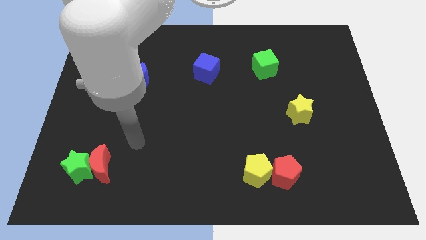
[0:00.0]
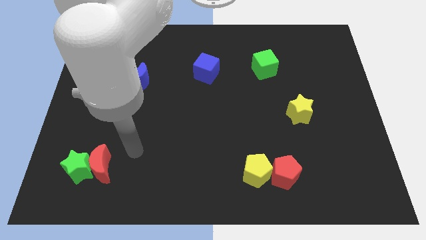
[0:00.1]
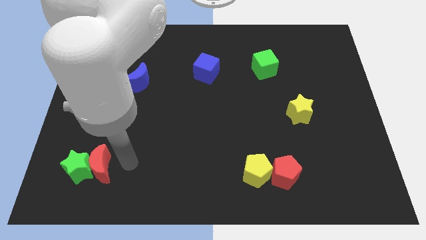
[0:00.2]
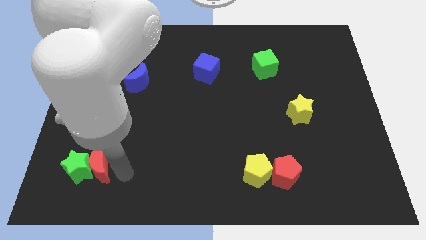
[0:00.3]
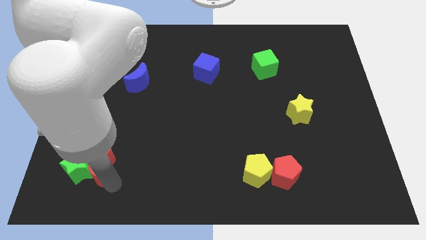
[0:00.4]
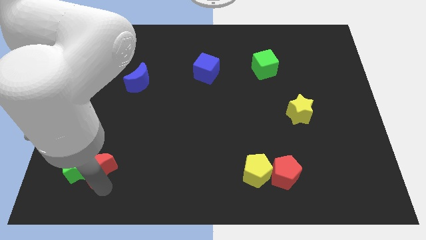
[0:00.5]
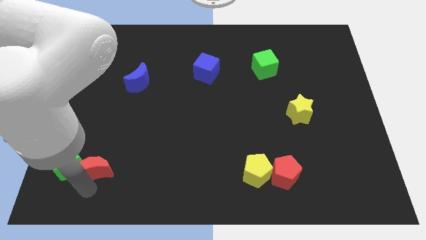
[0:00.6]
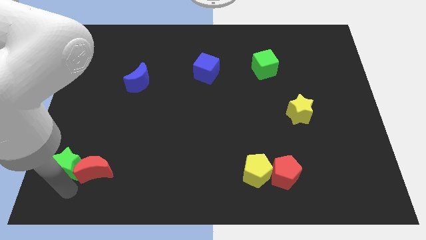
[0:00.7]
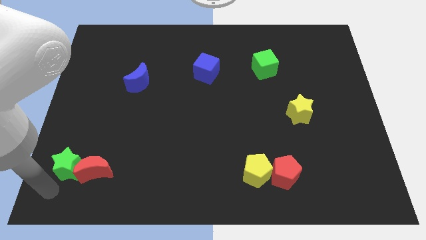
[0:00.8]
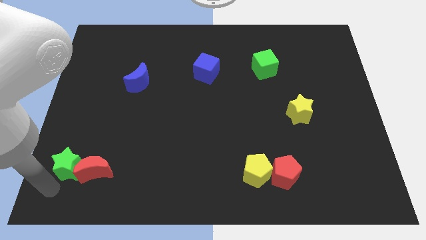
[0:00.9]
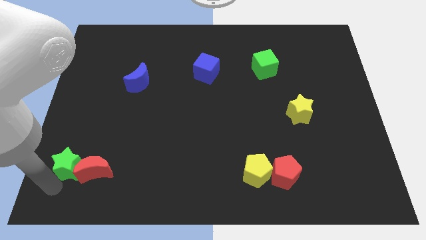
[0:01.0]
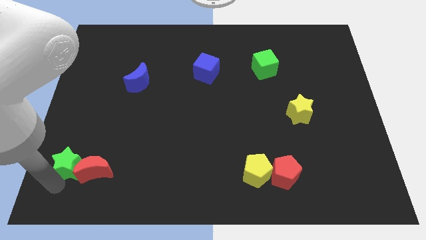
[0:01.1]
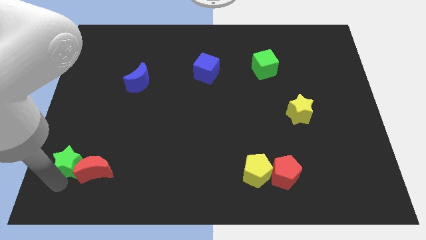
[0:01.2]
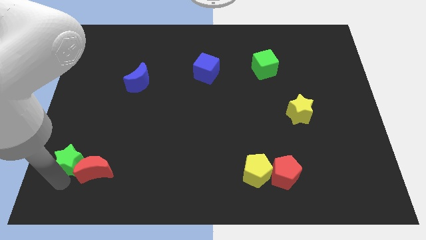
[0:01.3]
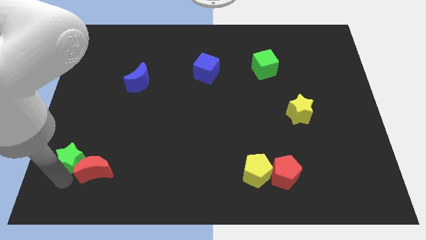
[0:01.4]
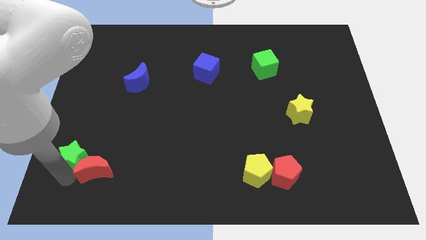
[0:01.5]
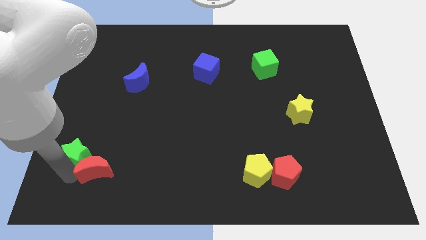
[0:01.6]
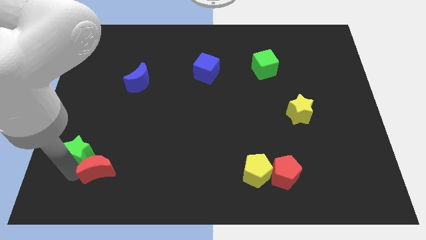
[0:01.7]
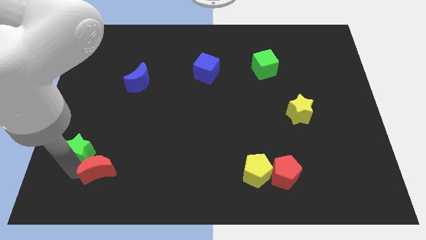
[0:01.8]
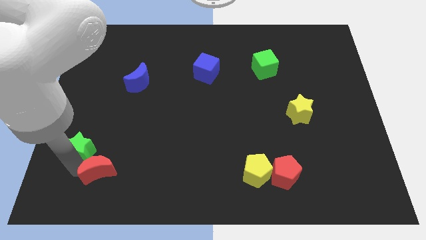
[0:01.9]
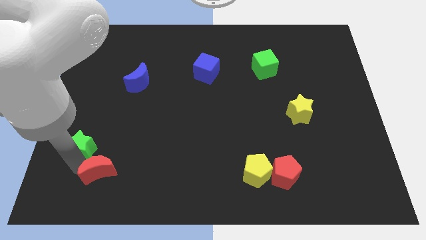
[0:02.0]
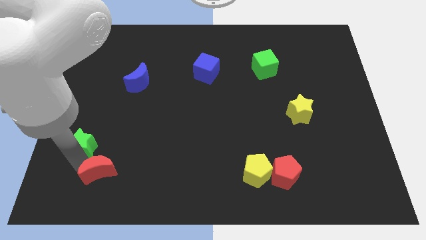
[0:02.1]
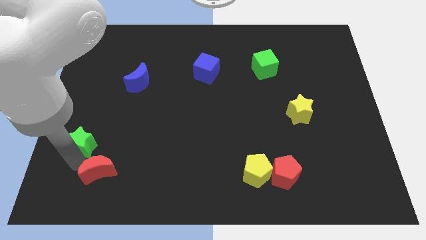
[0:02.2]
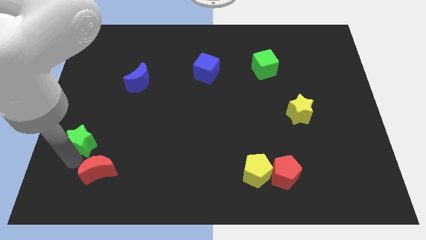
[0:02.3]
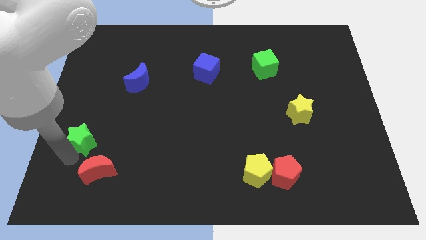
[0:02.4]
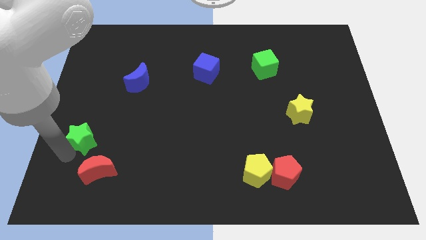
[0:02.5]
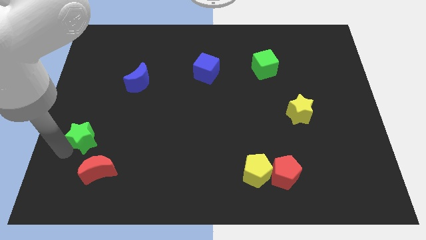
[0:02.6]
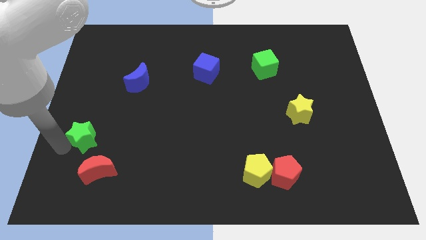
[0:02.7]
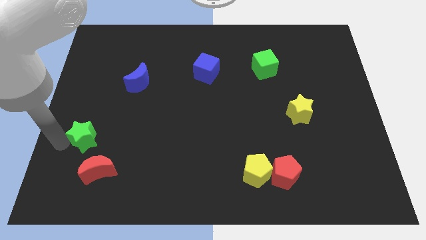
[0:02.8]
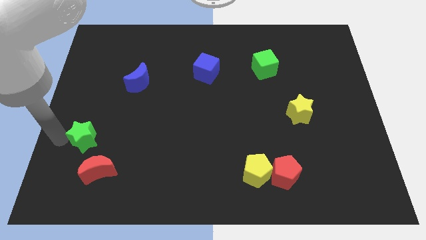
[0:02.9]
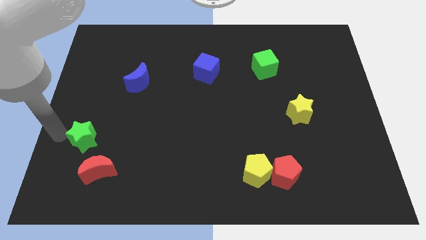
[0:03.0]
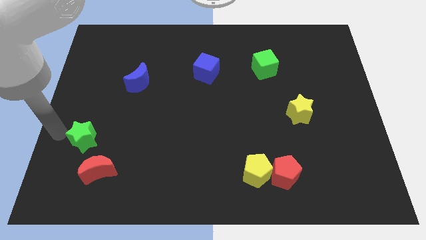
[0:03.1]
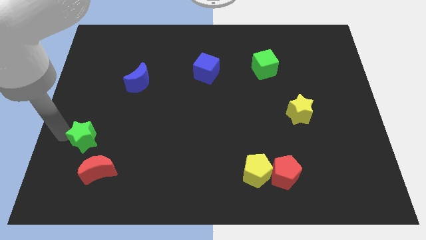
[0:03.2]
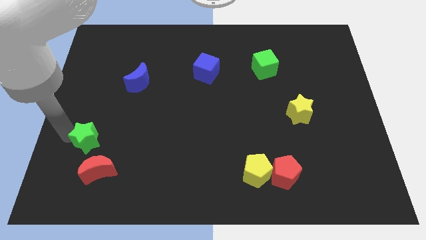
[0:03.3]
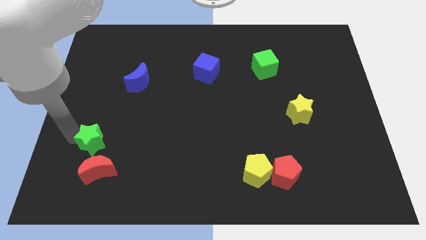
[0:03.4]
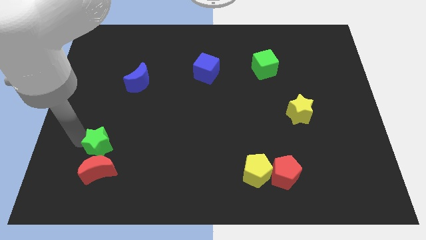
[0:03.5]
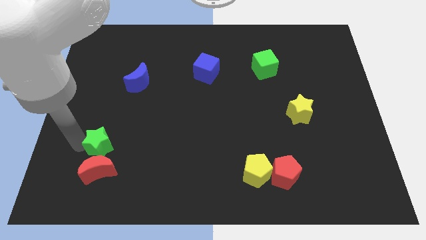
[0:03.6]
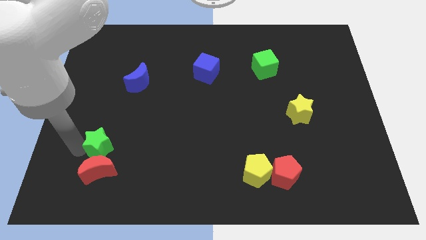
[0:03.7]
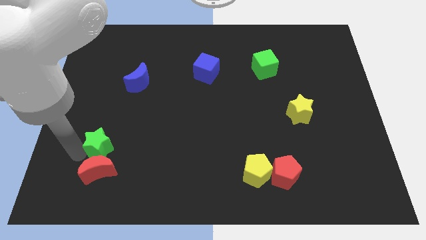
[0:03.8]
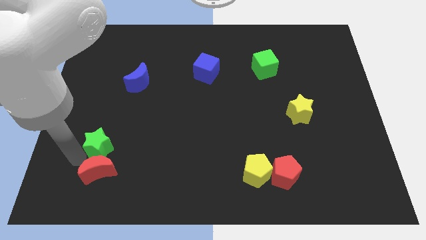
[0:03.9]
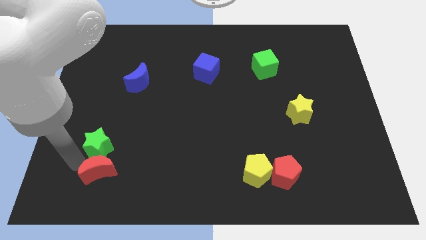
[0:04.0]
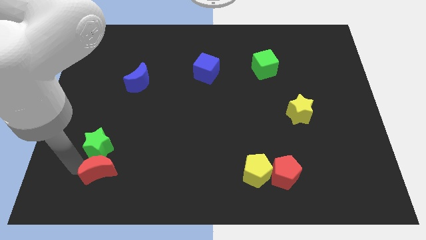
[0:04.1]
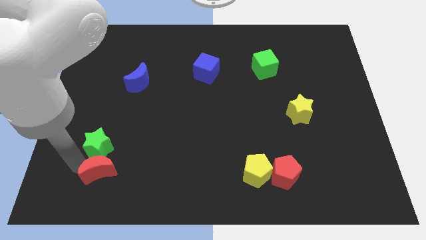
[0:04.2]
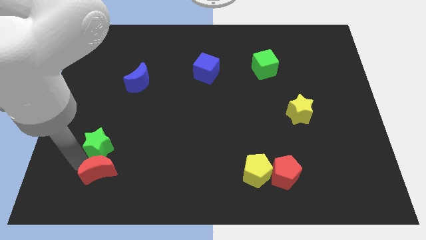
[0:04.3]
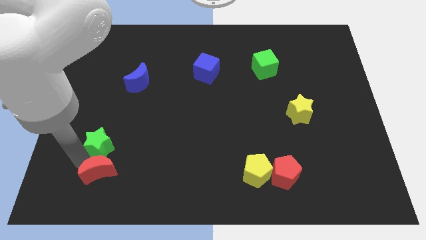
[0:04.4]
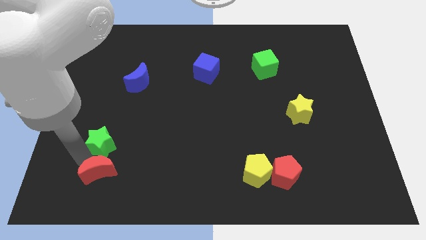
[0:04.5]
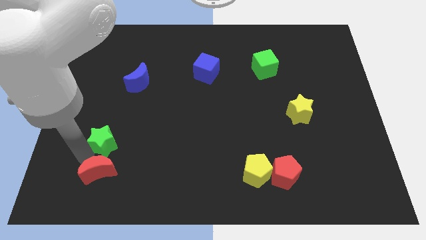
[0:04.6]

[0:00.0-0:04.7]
slide the green star upwards and right diagonally somewhat

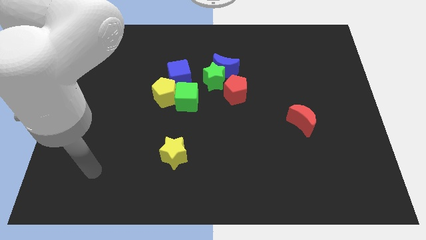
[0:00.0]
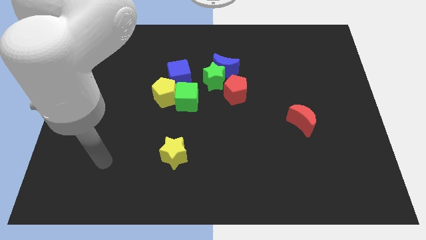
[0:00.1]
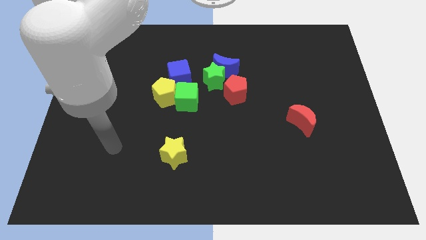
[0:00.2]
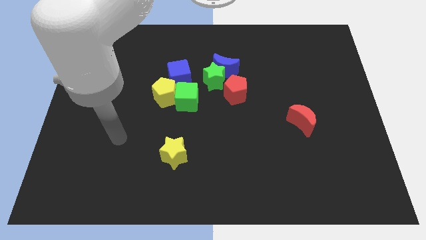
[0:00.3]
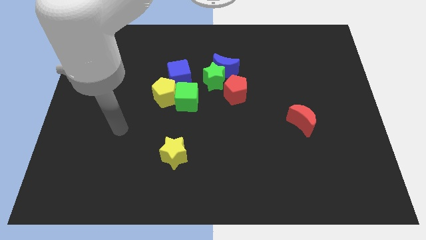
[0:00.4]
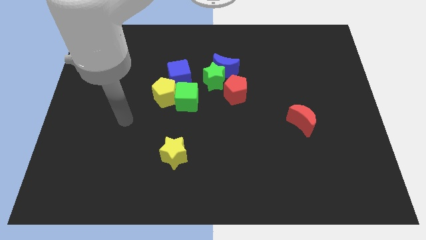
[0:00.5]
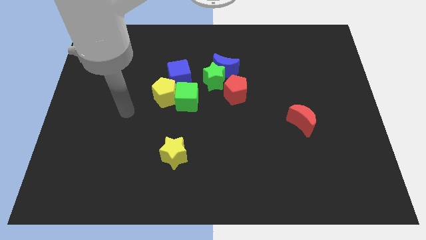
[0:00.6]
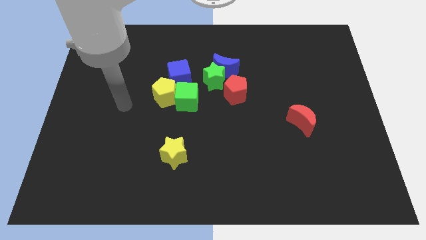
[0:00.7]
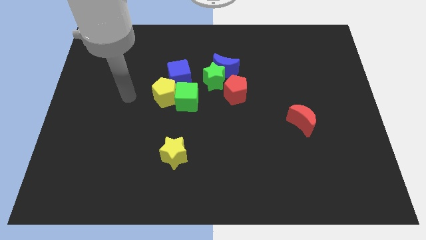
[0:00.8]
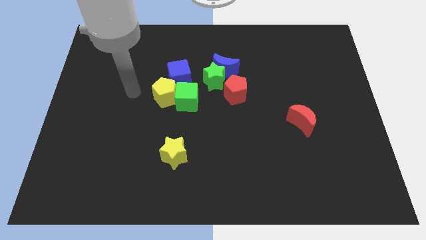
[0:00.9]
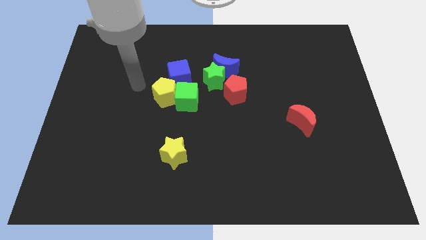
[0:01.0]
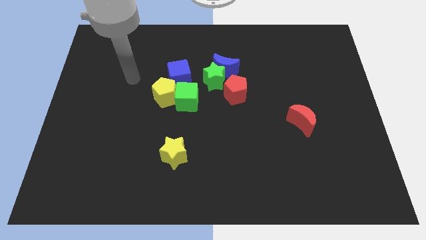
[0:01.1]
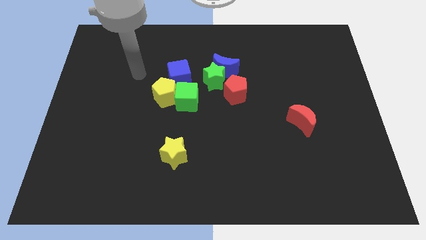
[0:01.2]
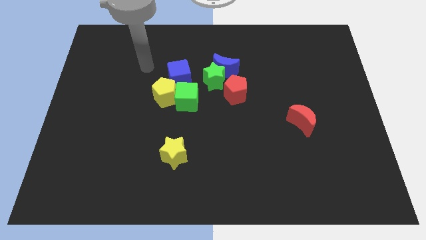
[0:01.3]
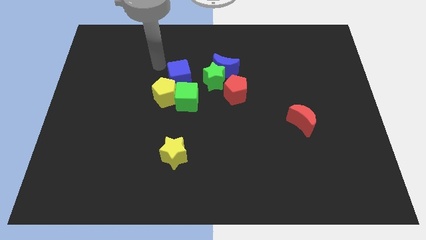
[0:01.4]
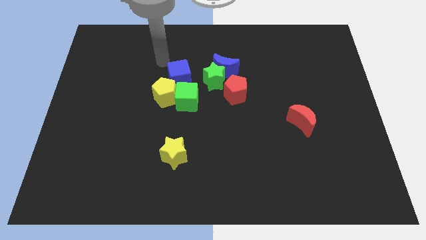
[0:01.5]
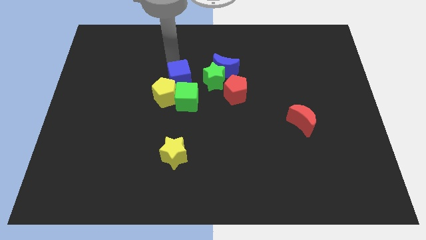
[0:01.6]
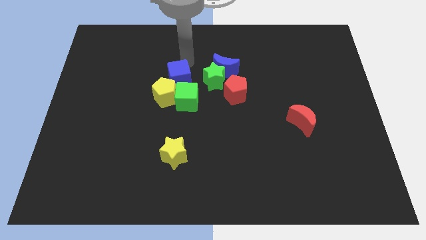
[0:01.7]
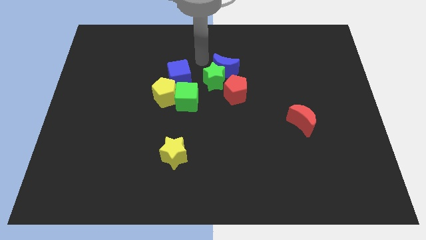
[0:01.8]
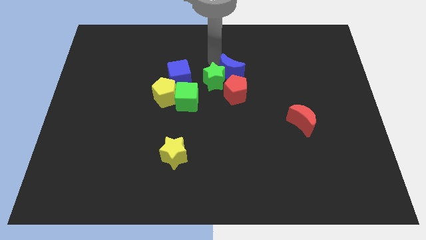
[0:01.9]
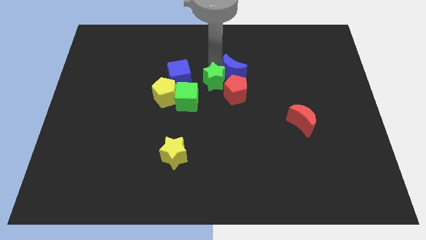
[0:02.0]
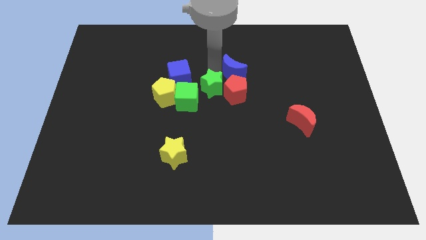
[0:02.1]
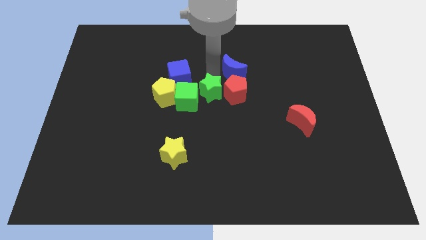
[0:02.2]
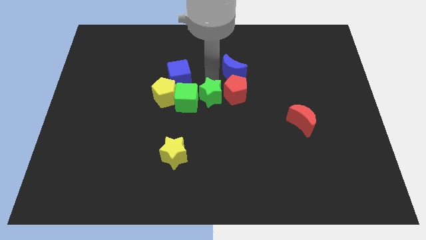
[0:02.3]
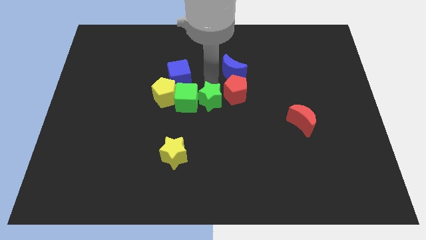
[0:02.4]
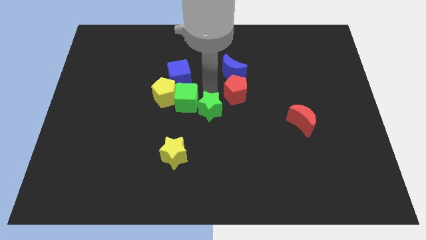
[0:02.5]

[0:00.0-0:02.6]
slightly slide the green star downwards

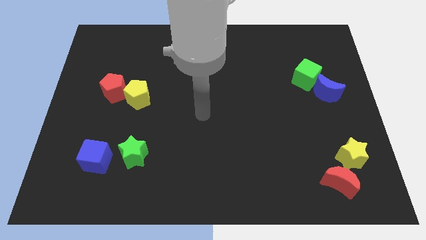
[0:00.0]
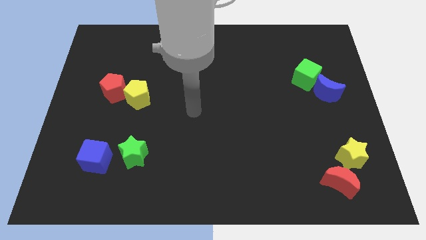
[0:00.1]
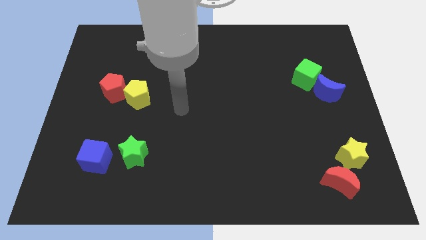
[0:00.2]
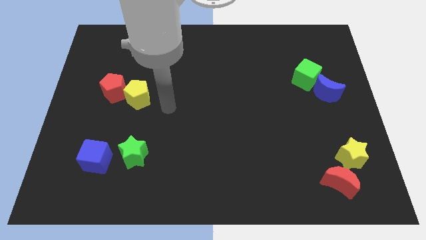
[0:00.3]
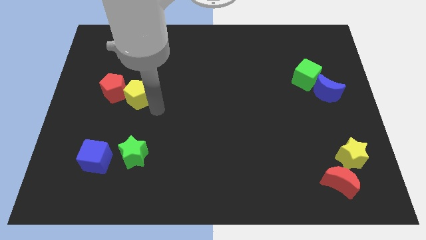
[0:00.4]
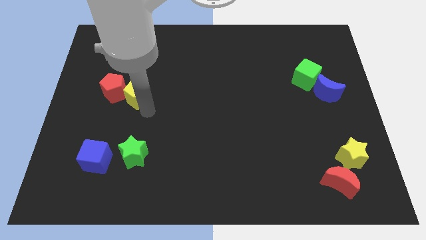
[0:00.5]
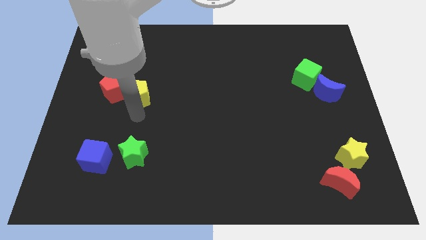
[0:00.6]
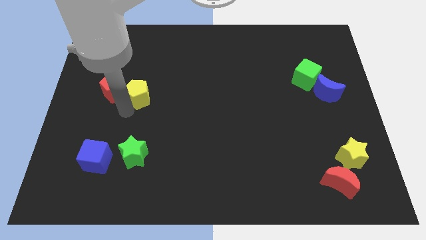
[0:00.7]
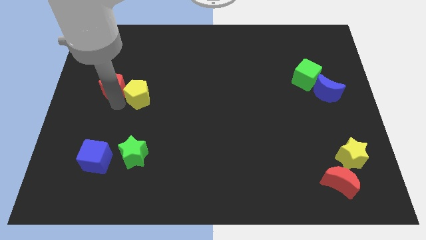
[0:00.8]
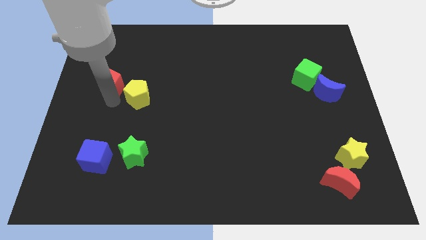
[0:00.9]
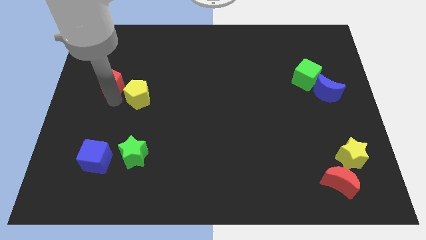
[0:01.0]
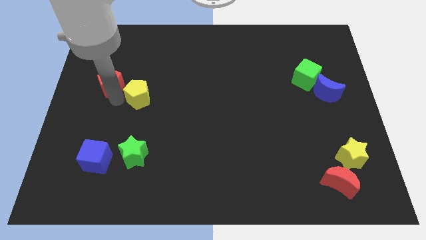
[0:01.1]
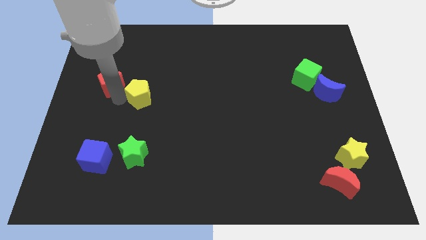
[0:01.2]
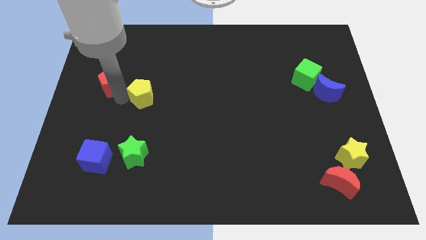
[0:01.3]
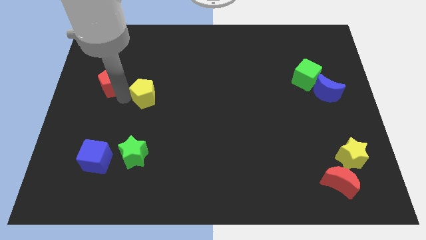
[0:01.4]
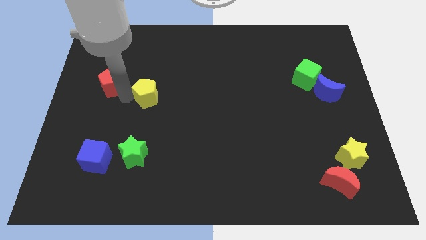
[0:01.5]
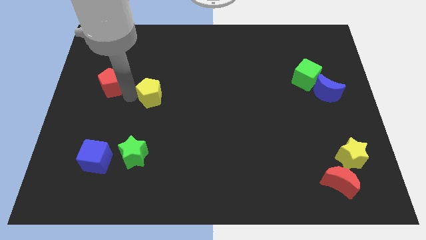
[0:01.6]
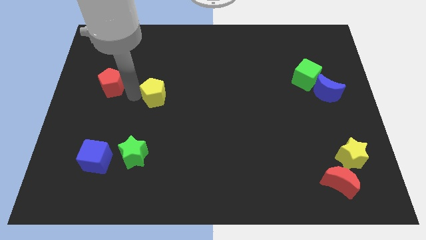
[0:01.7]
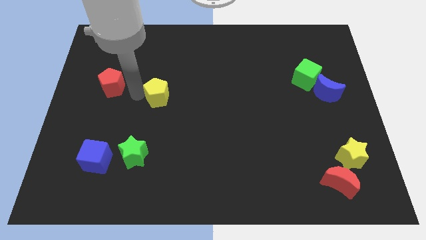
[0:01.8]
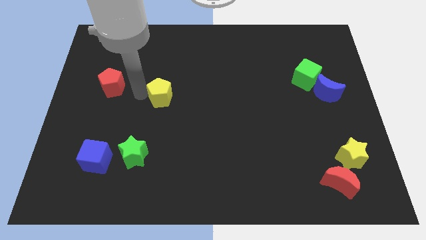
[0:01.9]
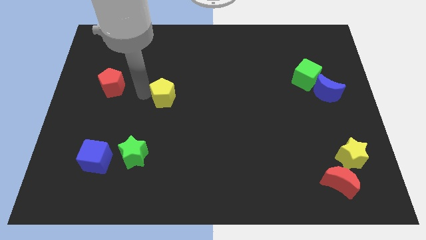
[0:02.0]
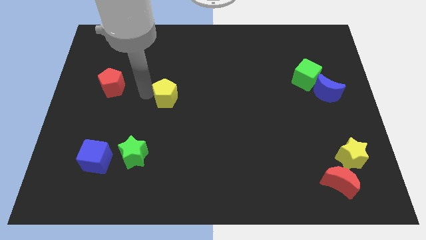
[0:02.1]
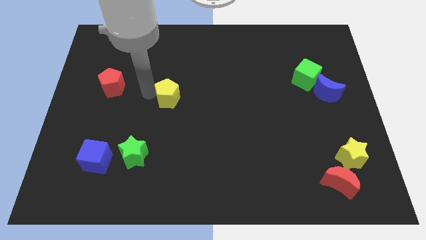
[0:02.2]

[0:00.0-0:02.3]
move the yellow pentagon a little bit to the right
